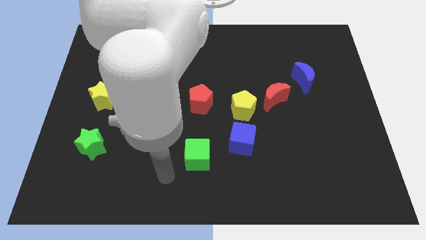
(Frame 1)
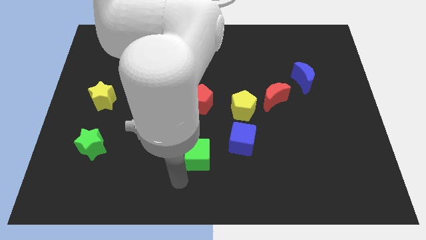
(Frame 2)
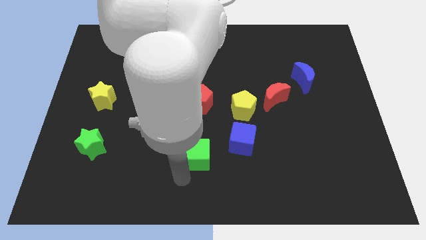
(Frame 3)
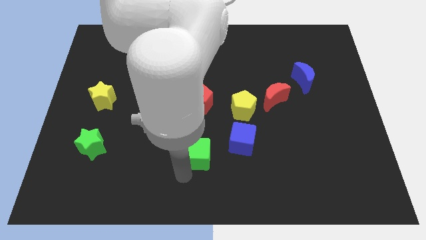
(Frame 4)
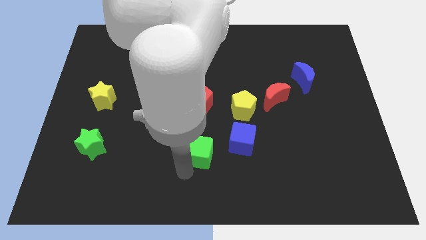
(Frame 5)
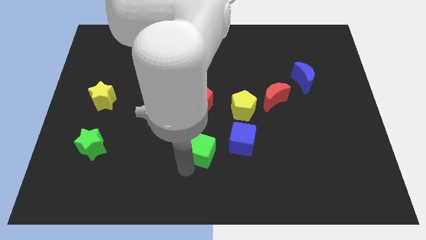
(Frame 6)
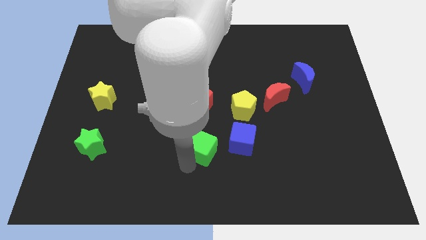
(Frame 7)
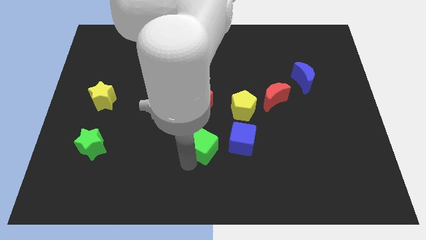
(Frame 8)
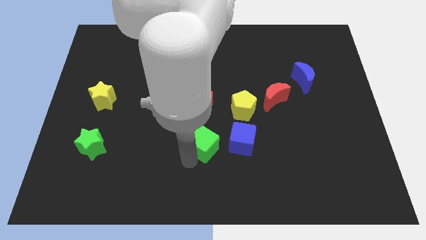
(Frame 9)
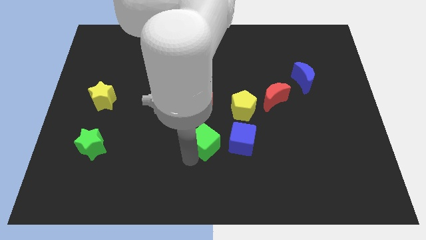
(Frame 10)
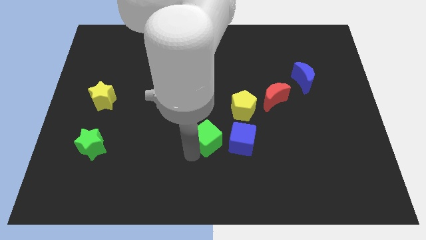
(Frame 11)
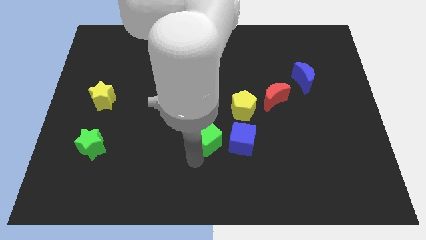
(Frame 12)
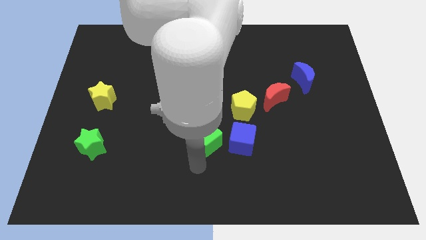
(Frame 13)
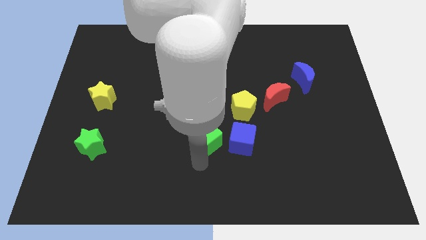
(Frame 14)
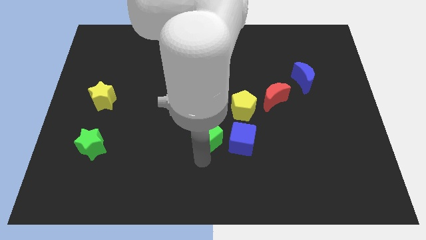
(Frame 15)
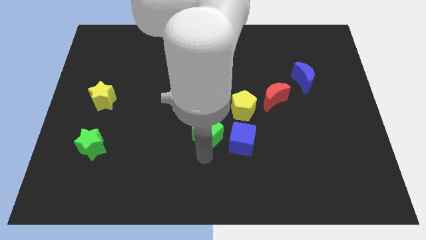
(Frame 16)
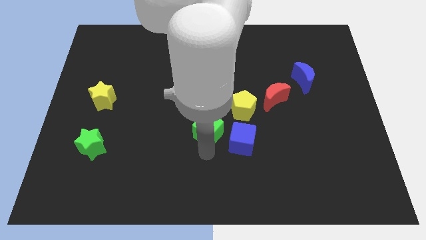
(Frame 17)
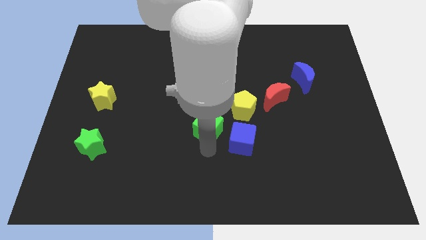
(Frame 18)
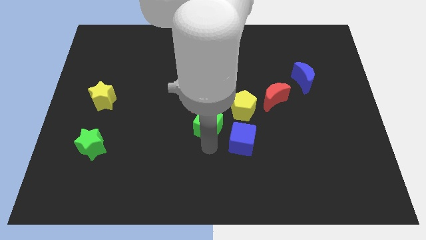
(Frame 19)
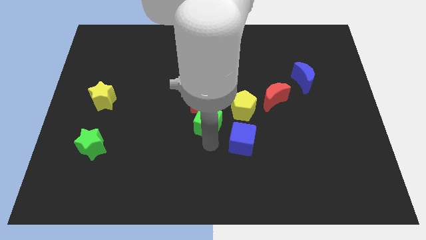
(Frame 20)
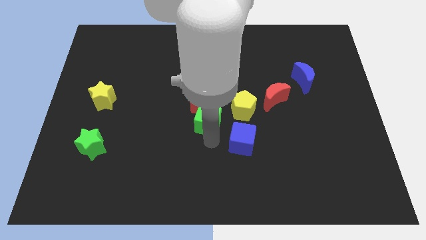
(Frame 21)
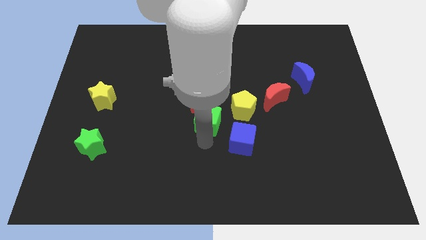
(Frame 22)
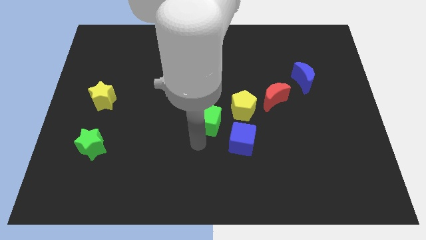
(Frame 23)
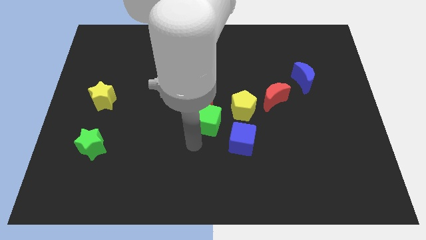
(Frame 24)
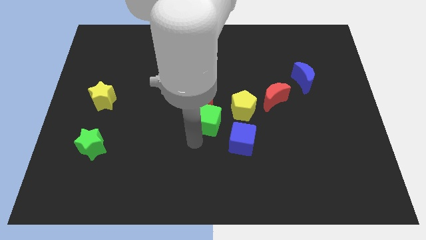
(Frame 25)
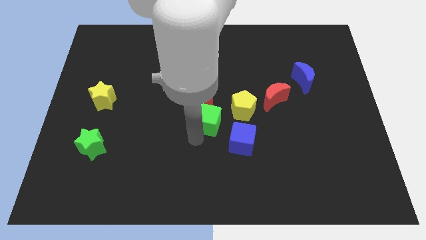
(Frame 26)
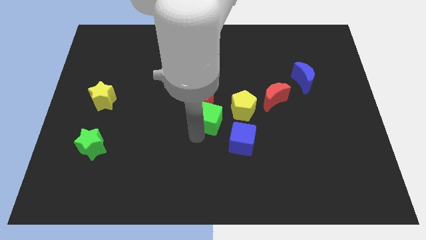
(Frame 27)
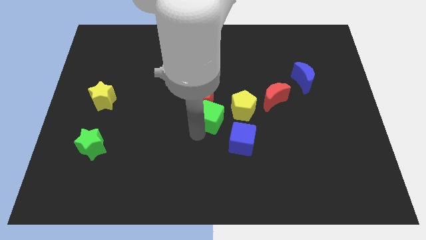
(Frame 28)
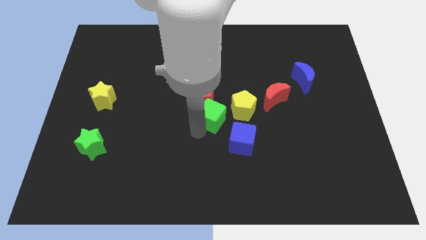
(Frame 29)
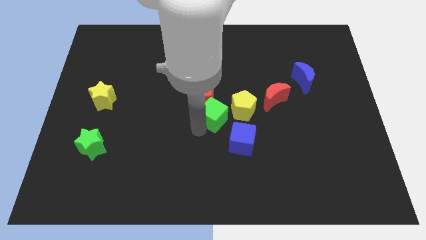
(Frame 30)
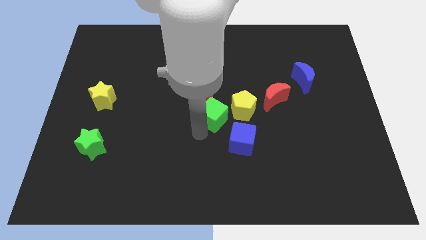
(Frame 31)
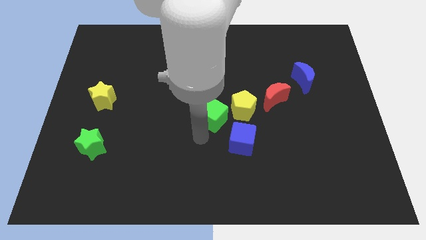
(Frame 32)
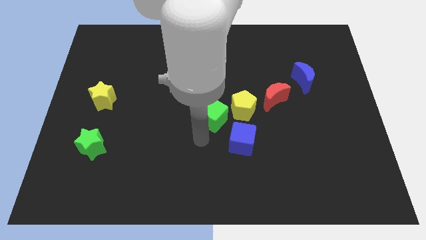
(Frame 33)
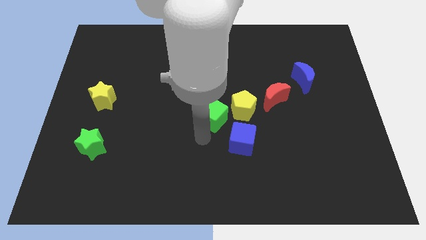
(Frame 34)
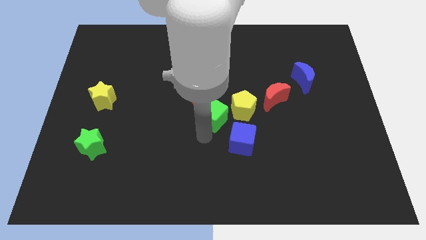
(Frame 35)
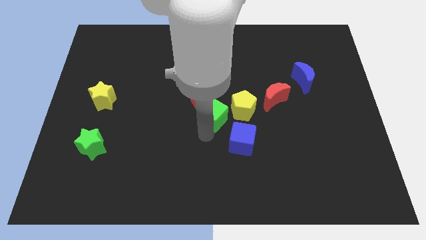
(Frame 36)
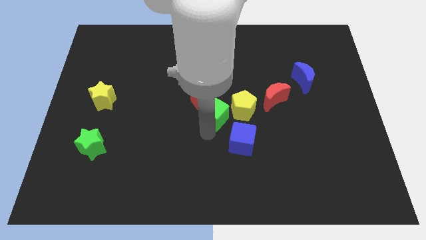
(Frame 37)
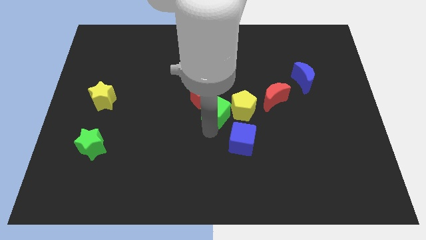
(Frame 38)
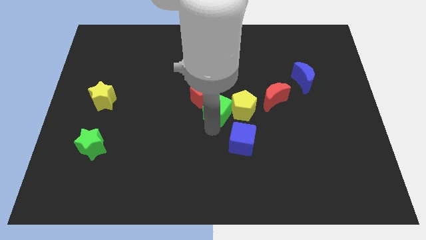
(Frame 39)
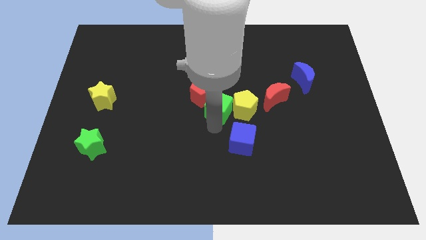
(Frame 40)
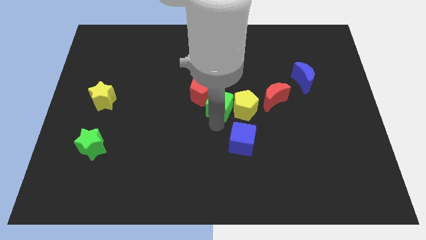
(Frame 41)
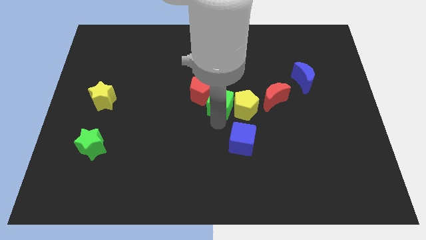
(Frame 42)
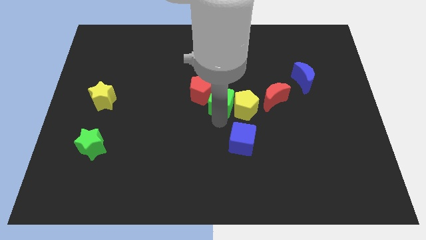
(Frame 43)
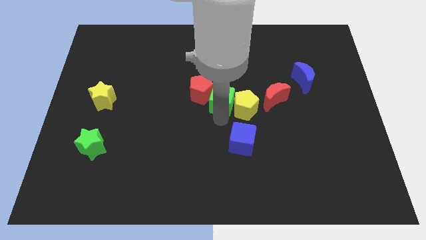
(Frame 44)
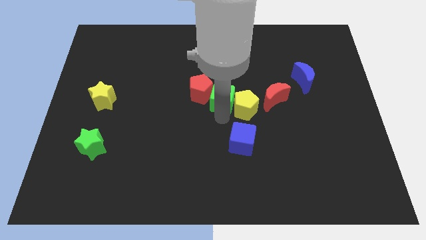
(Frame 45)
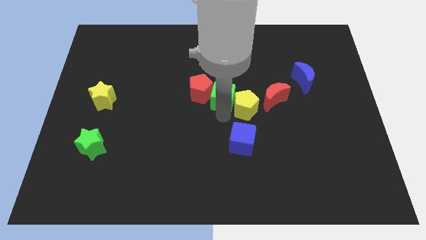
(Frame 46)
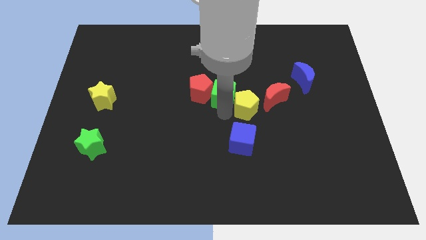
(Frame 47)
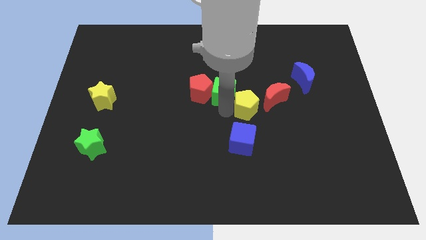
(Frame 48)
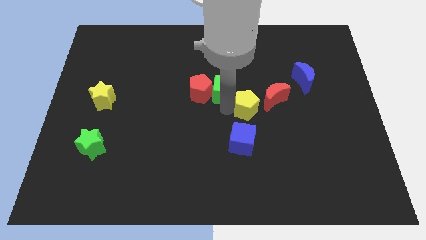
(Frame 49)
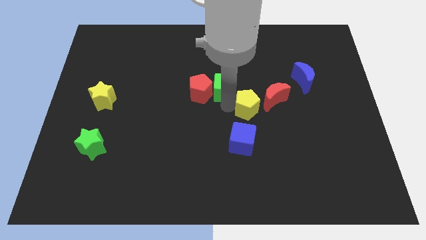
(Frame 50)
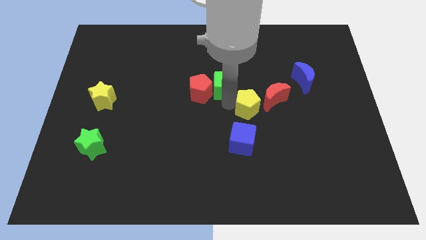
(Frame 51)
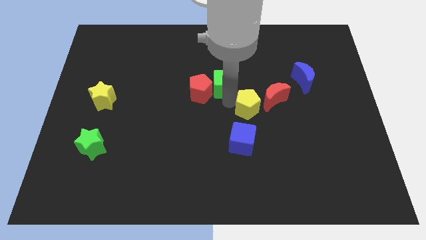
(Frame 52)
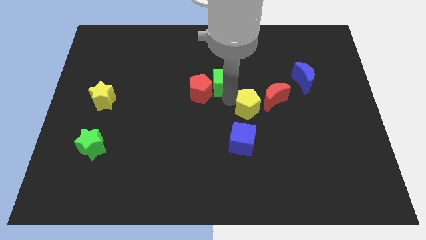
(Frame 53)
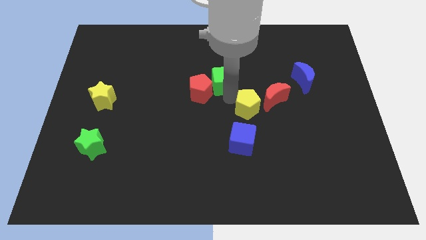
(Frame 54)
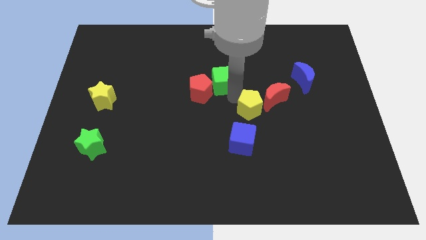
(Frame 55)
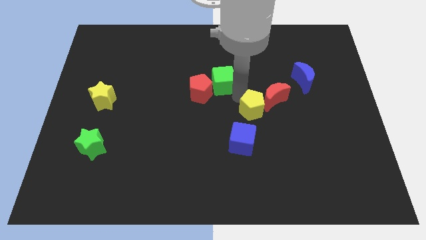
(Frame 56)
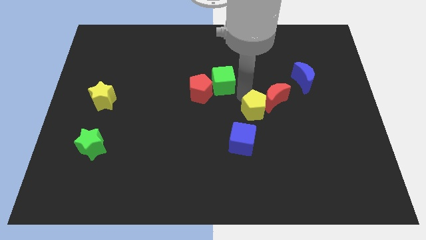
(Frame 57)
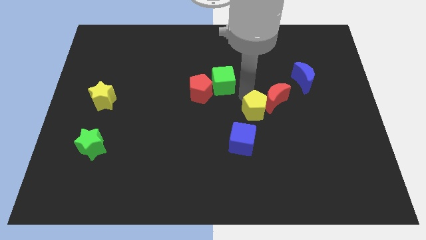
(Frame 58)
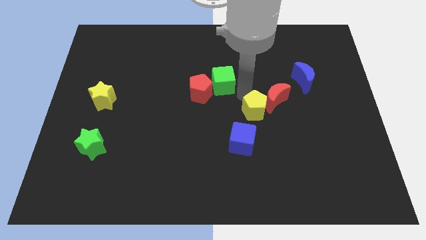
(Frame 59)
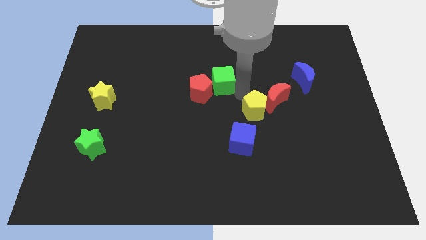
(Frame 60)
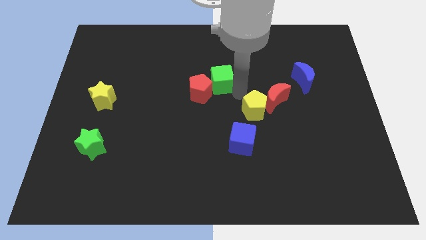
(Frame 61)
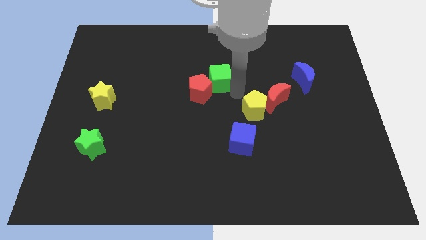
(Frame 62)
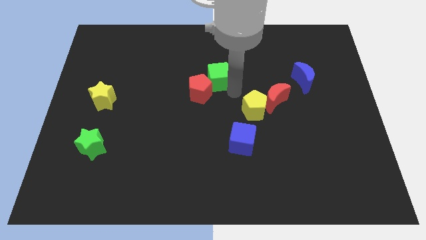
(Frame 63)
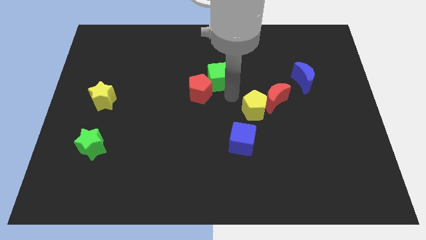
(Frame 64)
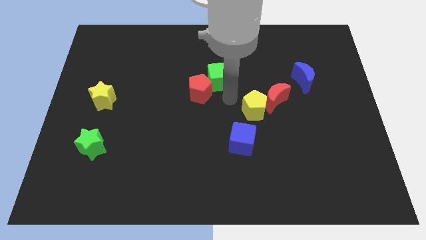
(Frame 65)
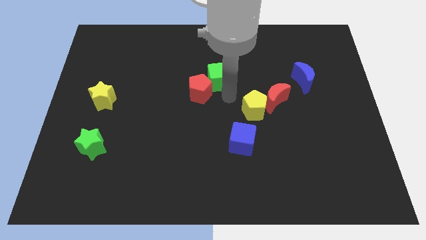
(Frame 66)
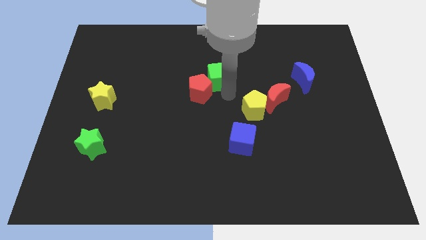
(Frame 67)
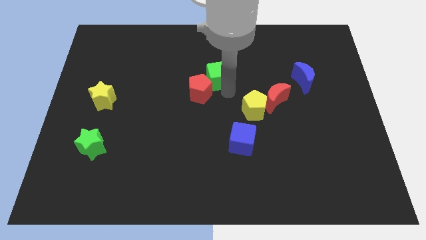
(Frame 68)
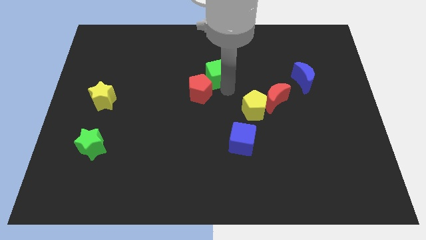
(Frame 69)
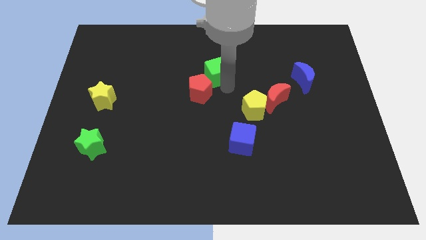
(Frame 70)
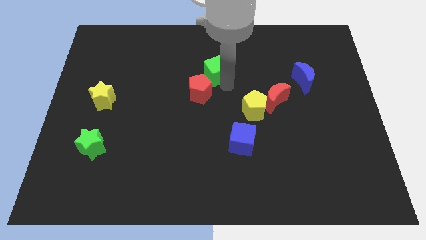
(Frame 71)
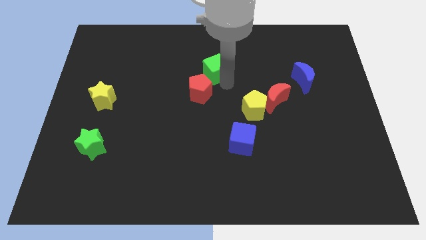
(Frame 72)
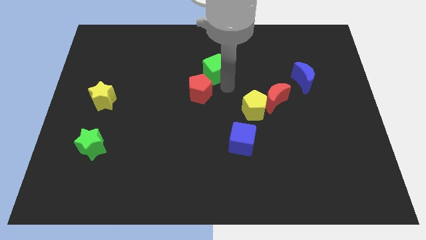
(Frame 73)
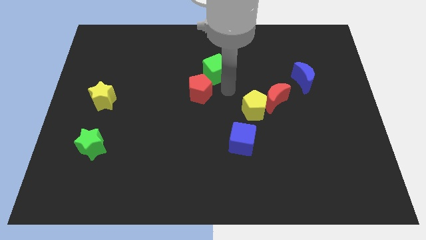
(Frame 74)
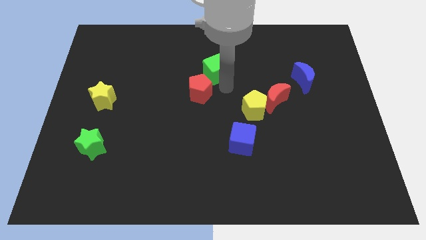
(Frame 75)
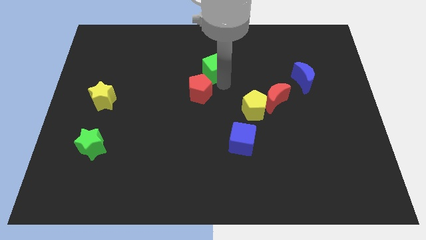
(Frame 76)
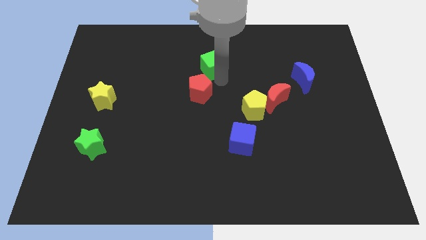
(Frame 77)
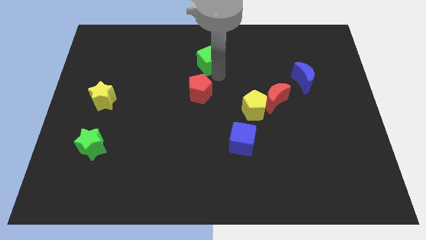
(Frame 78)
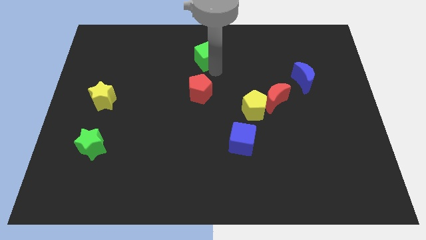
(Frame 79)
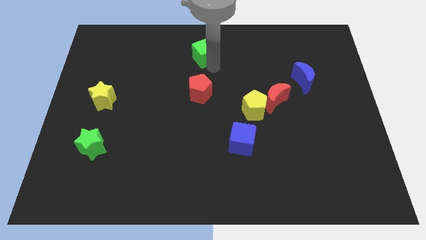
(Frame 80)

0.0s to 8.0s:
push the green cube to the top side
